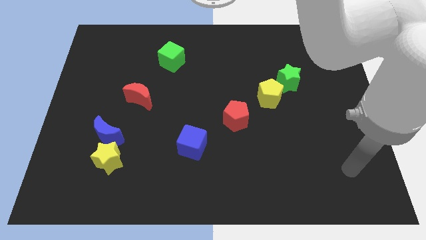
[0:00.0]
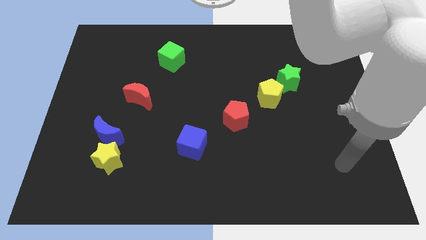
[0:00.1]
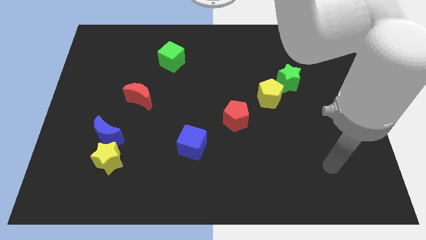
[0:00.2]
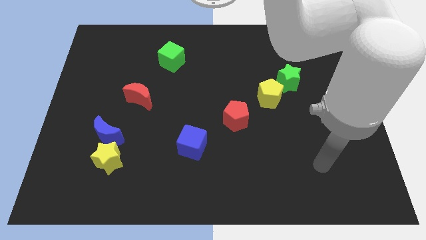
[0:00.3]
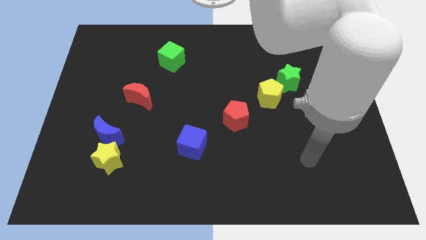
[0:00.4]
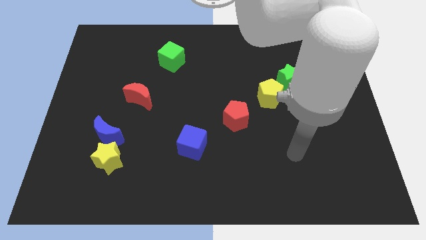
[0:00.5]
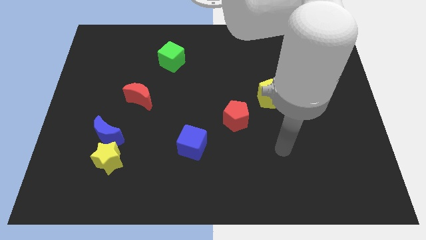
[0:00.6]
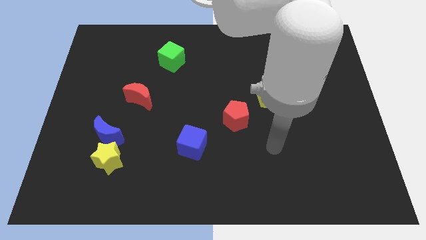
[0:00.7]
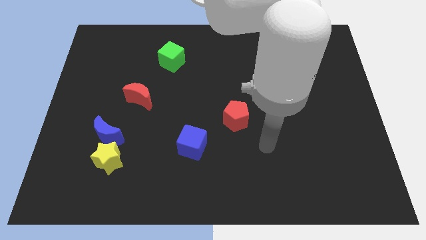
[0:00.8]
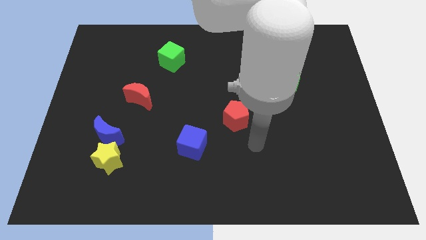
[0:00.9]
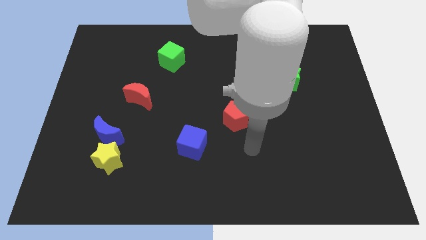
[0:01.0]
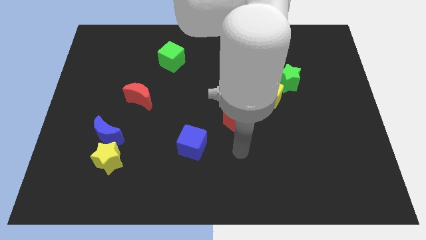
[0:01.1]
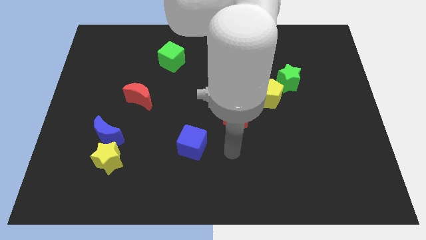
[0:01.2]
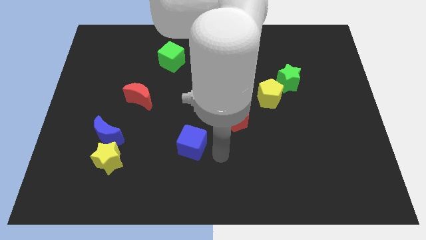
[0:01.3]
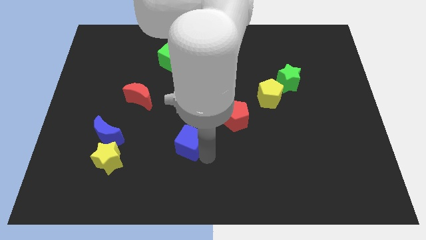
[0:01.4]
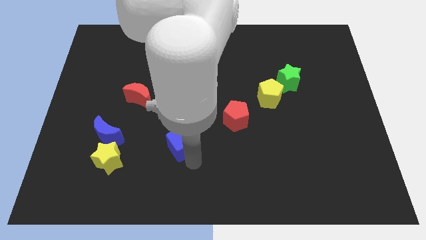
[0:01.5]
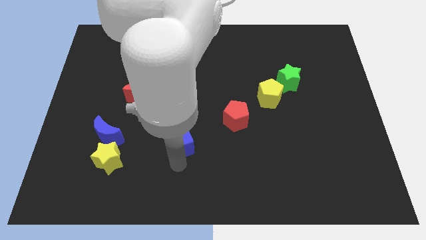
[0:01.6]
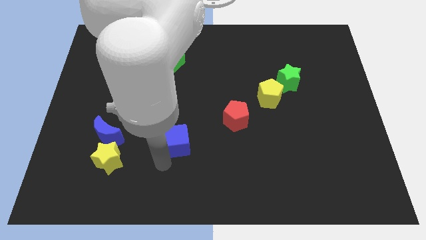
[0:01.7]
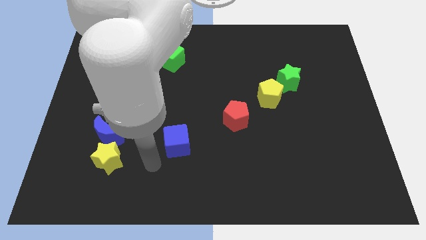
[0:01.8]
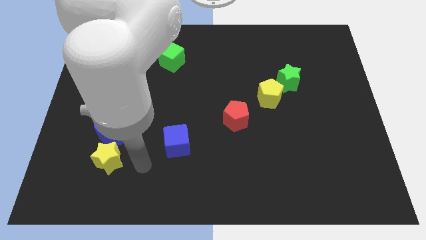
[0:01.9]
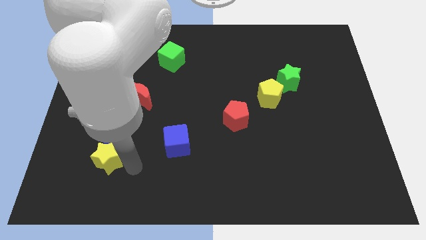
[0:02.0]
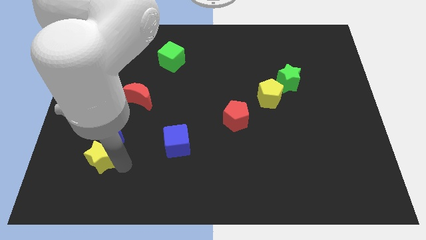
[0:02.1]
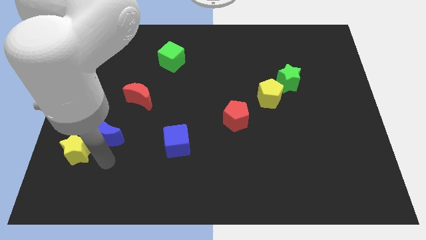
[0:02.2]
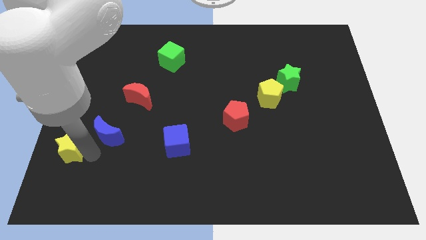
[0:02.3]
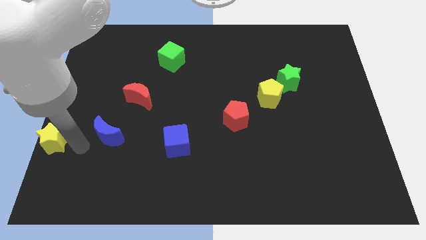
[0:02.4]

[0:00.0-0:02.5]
pull the blue moon apart from the yellow star

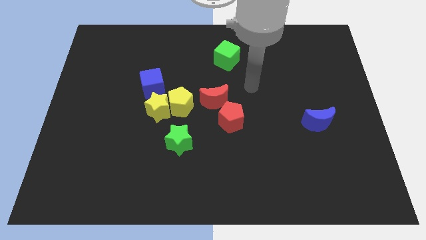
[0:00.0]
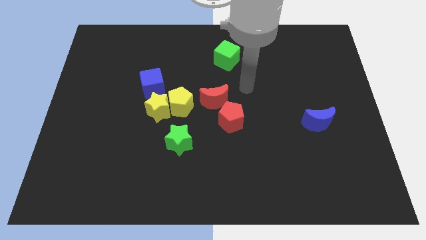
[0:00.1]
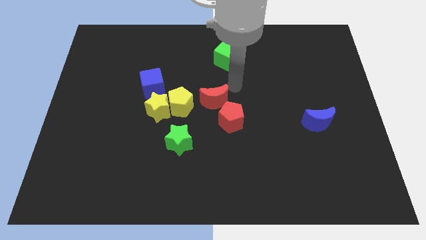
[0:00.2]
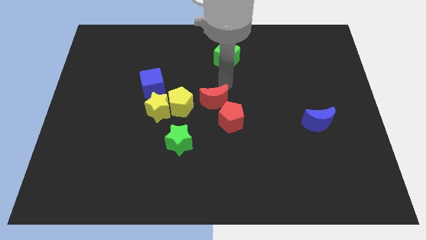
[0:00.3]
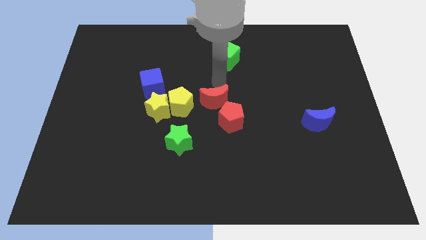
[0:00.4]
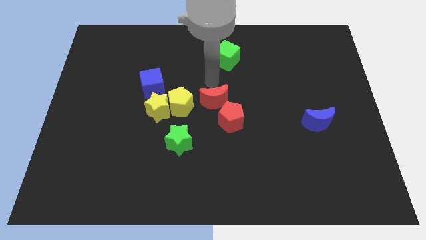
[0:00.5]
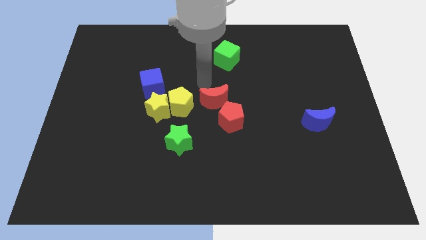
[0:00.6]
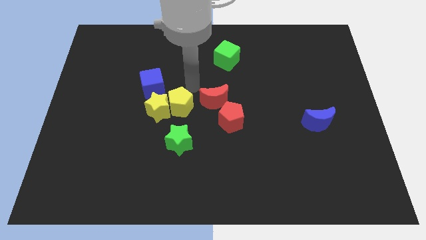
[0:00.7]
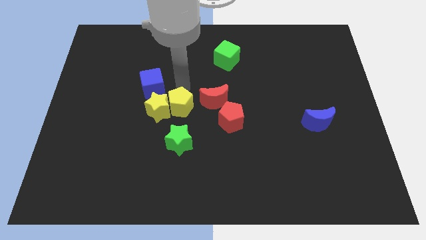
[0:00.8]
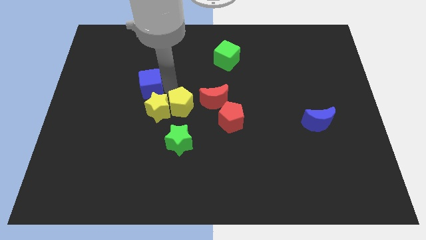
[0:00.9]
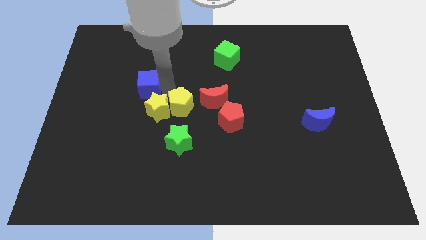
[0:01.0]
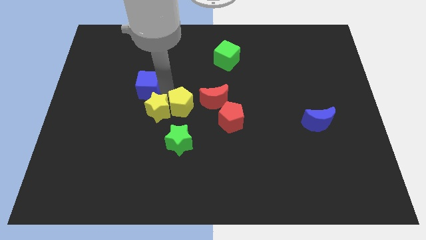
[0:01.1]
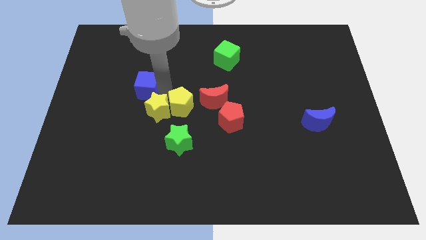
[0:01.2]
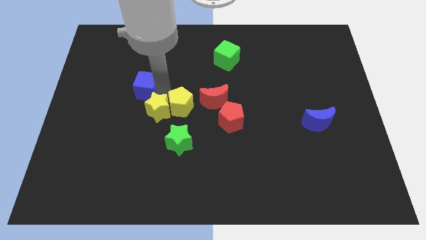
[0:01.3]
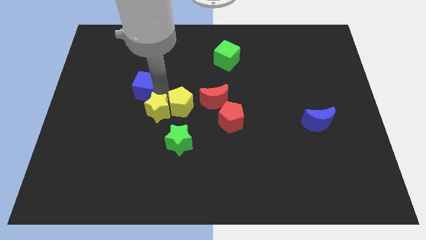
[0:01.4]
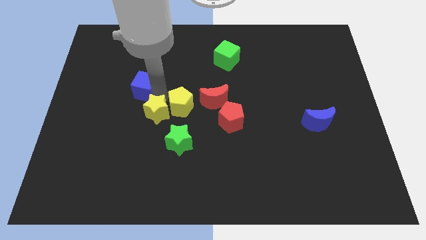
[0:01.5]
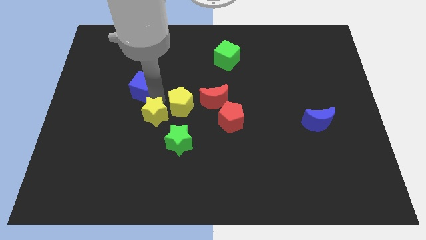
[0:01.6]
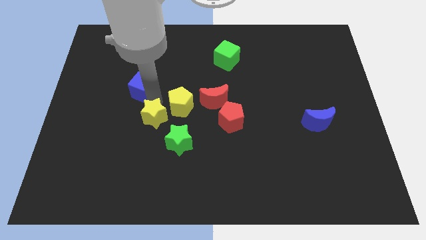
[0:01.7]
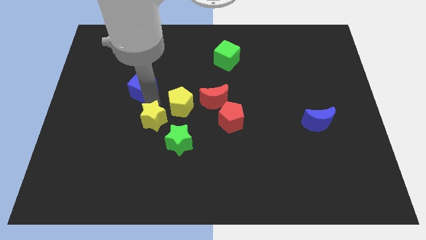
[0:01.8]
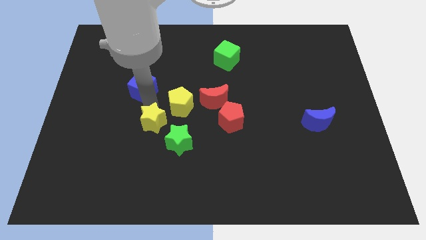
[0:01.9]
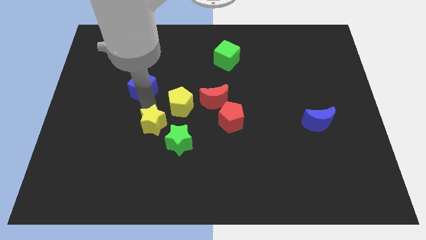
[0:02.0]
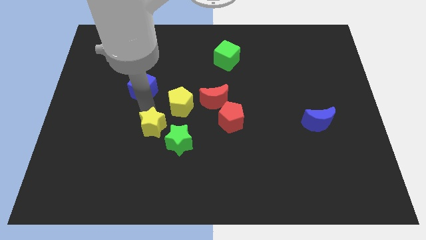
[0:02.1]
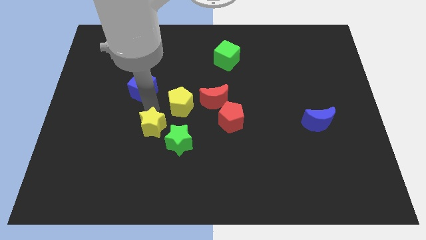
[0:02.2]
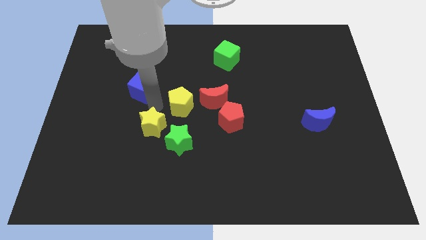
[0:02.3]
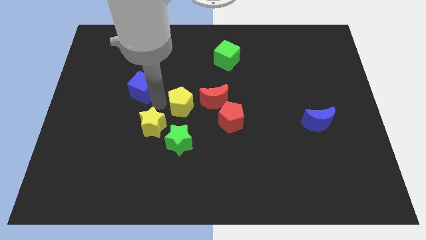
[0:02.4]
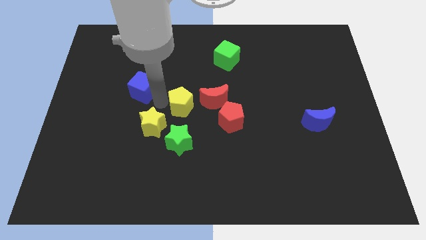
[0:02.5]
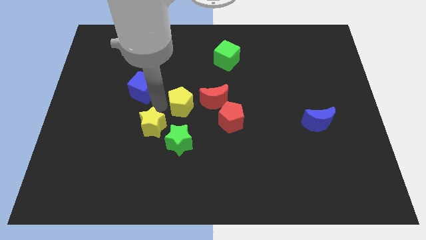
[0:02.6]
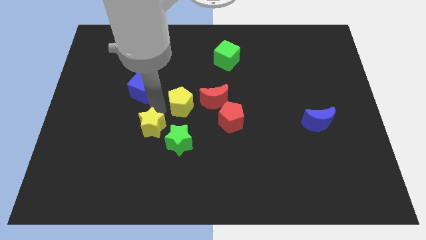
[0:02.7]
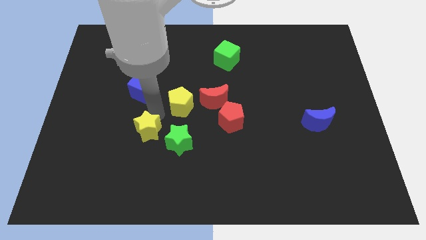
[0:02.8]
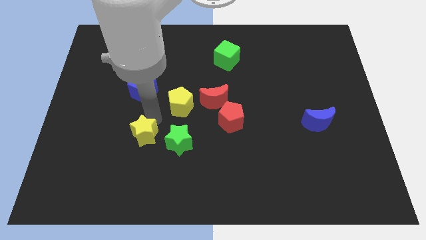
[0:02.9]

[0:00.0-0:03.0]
move the yellow star away from the yellow pentagon and blue cube

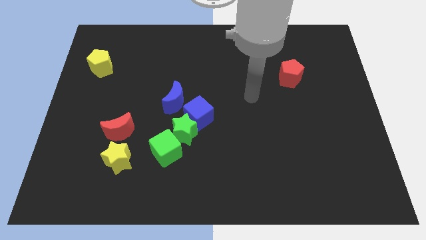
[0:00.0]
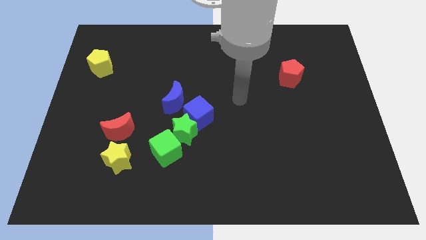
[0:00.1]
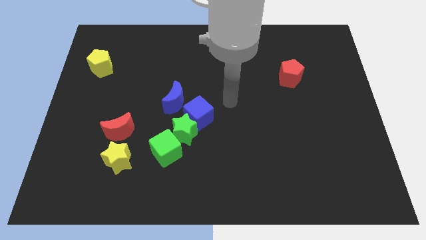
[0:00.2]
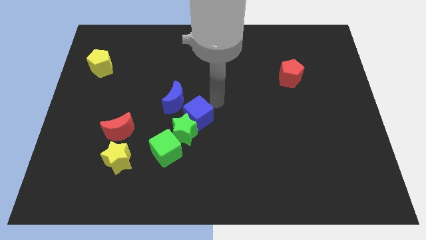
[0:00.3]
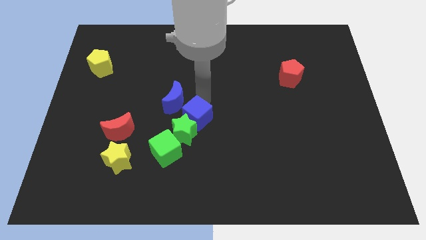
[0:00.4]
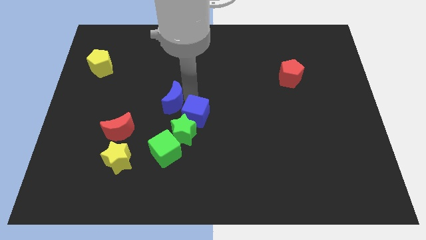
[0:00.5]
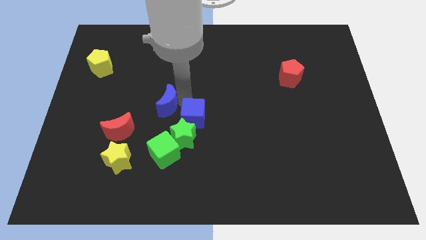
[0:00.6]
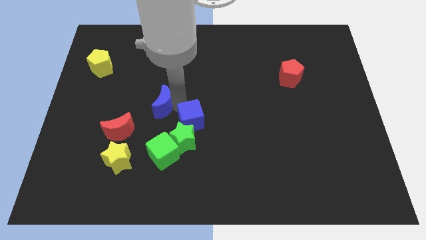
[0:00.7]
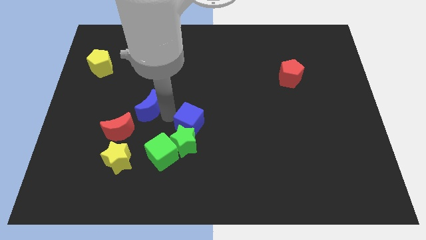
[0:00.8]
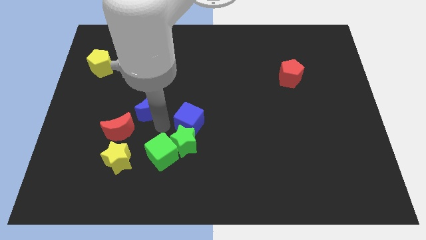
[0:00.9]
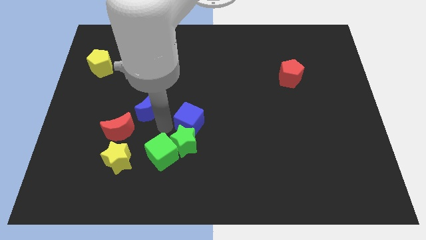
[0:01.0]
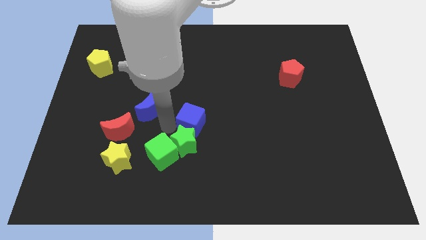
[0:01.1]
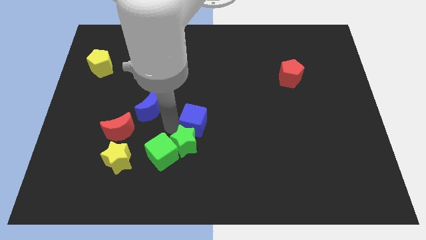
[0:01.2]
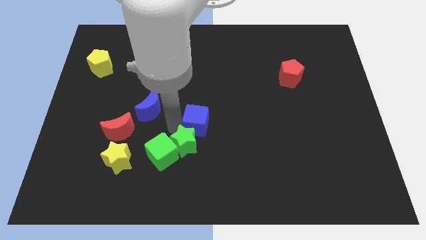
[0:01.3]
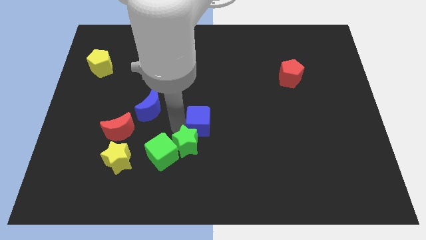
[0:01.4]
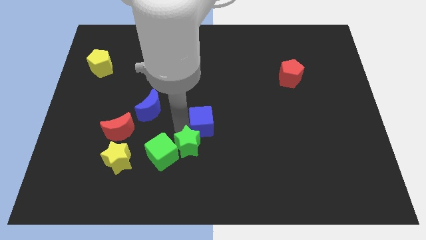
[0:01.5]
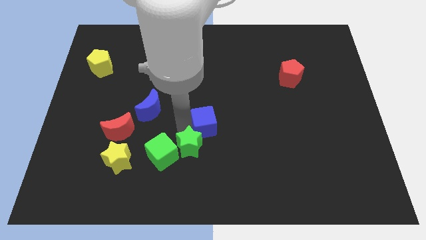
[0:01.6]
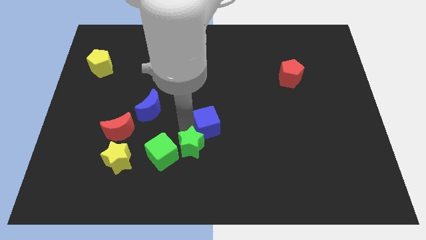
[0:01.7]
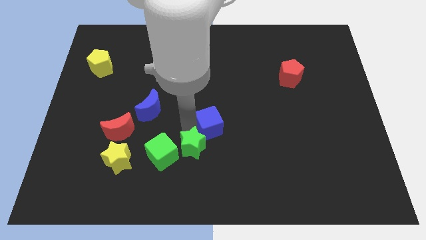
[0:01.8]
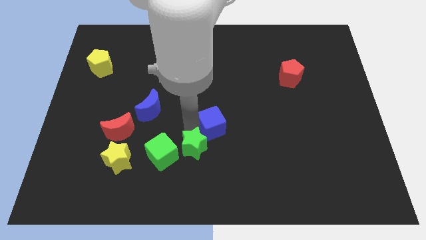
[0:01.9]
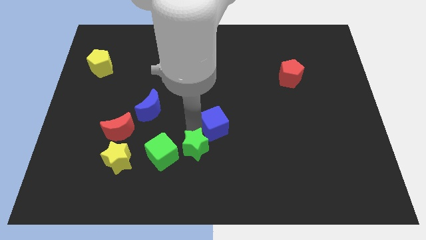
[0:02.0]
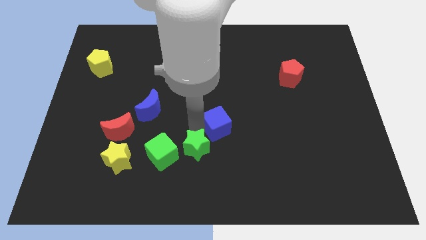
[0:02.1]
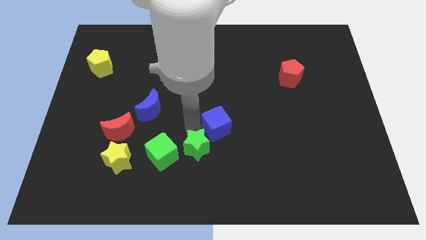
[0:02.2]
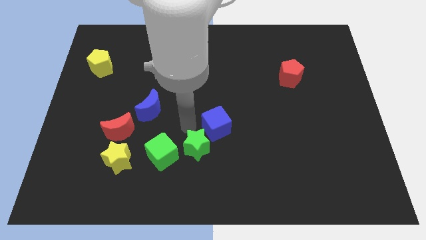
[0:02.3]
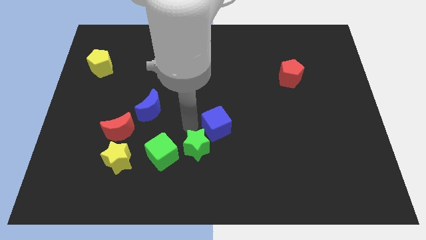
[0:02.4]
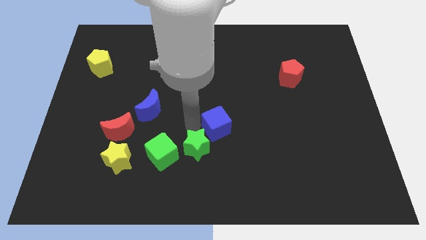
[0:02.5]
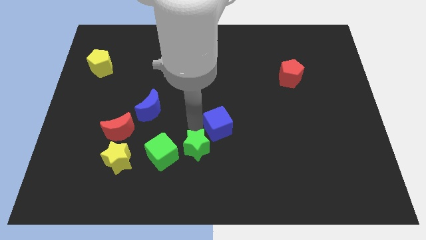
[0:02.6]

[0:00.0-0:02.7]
move the blue cube away from the green star and blue moon

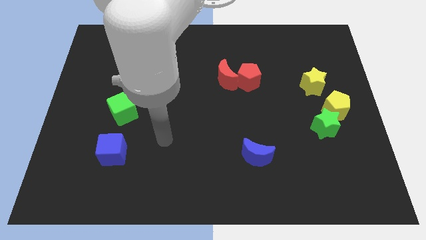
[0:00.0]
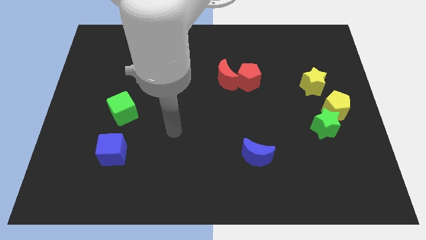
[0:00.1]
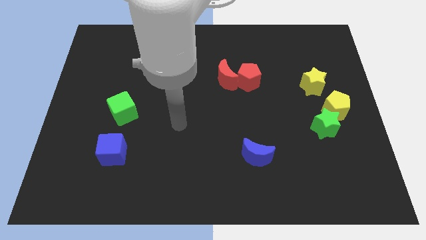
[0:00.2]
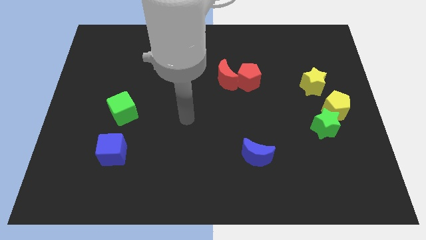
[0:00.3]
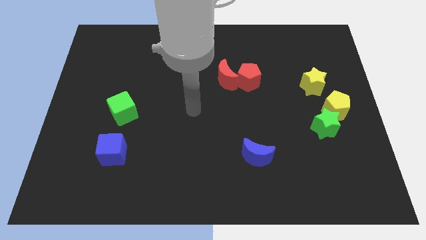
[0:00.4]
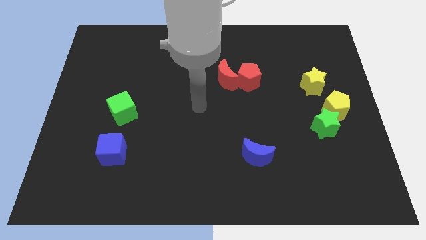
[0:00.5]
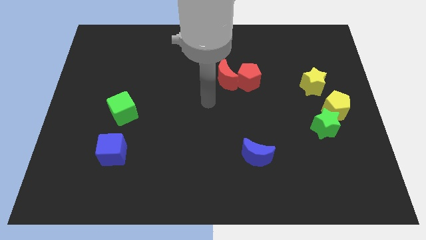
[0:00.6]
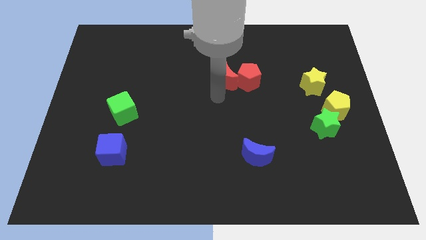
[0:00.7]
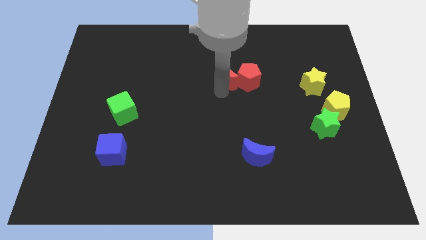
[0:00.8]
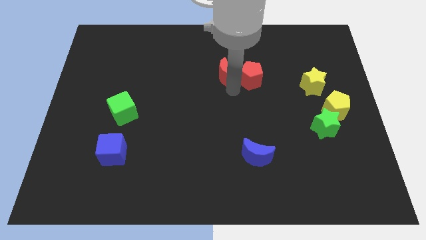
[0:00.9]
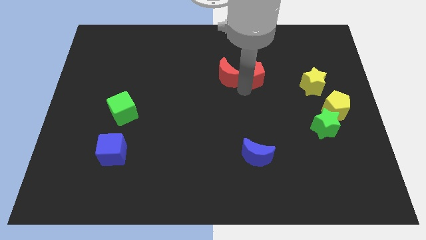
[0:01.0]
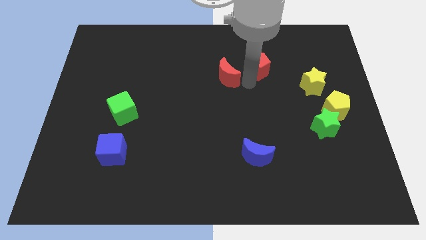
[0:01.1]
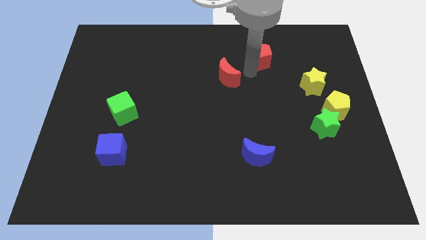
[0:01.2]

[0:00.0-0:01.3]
move the red moon away from the red pentagon
